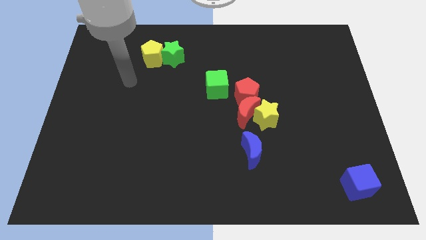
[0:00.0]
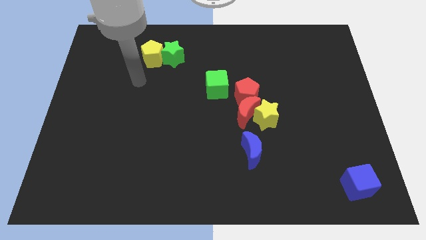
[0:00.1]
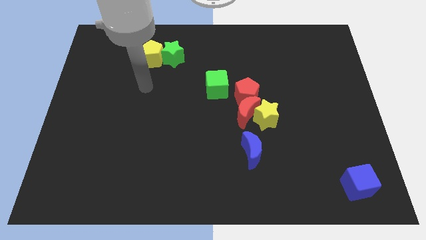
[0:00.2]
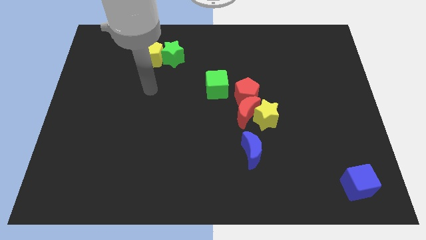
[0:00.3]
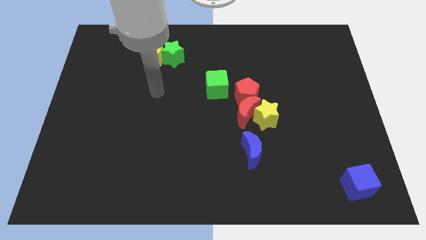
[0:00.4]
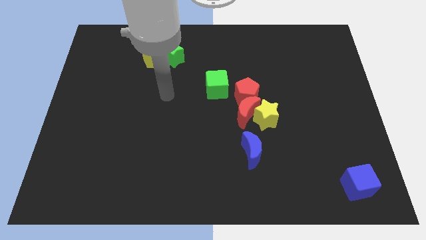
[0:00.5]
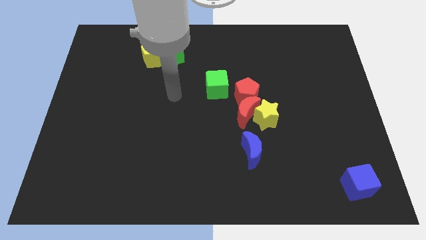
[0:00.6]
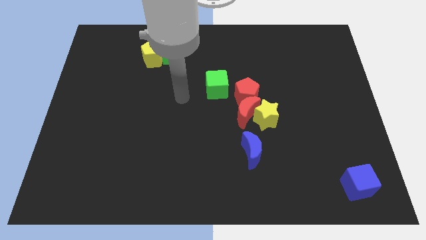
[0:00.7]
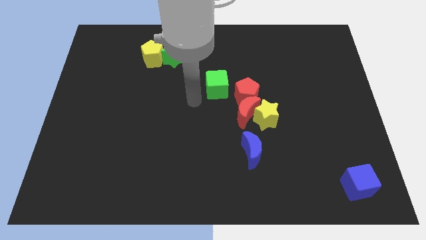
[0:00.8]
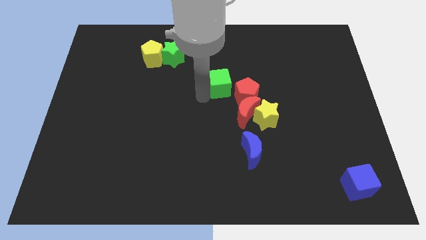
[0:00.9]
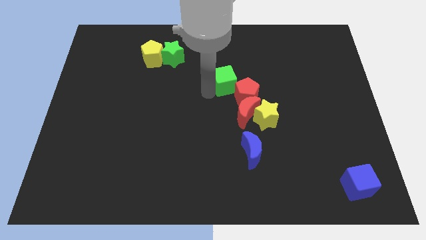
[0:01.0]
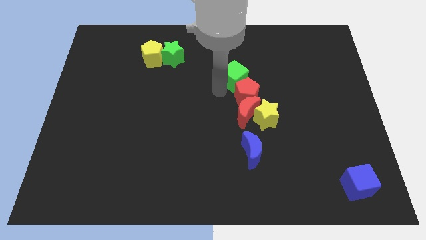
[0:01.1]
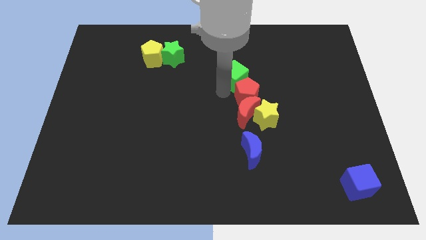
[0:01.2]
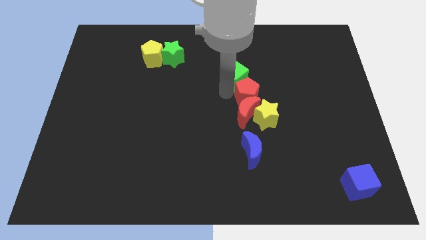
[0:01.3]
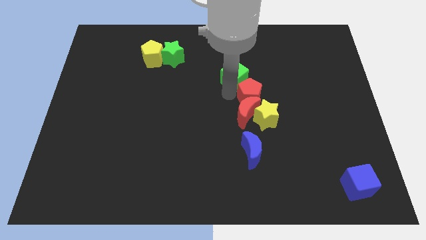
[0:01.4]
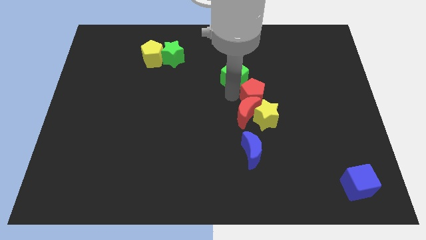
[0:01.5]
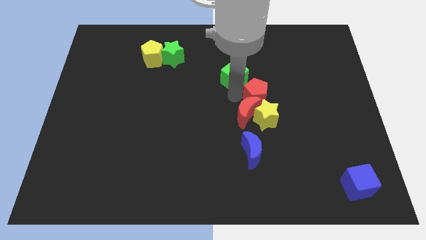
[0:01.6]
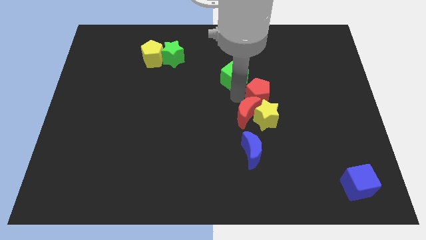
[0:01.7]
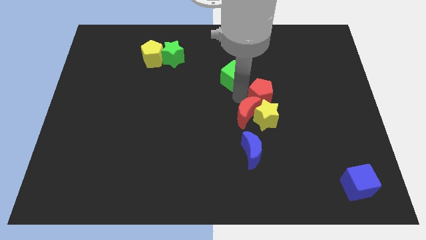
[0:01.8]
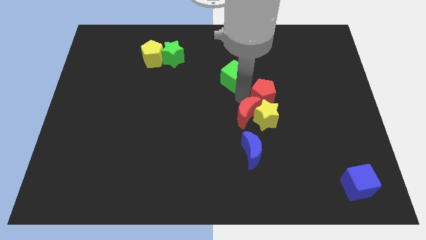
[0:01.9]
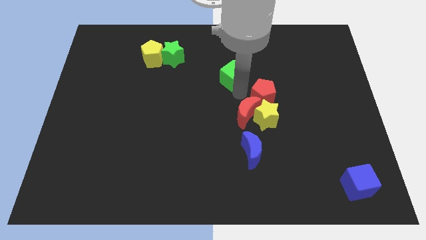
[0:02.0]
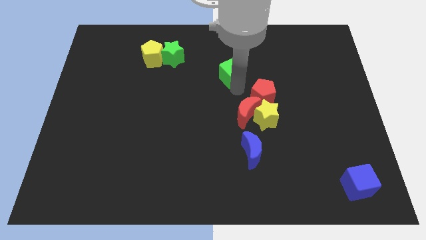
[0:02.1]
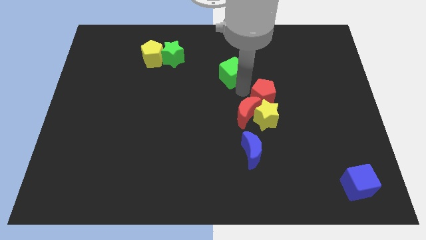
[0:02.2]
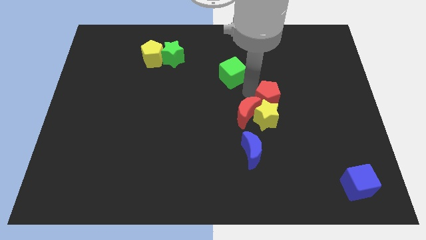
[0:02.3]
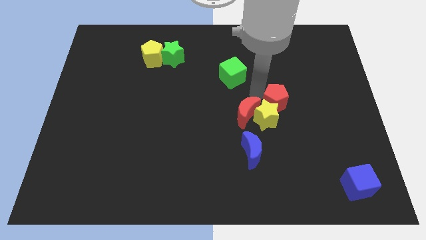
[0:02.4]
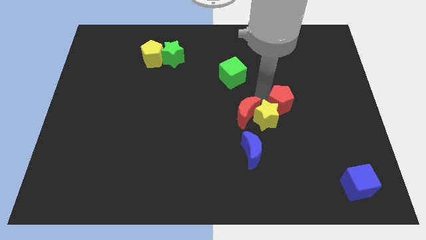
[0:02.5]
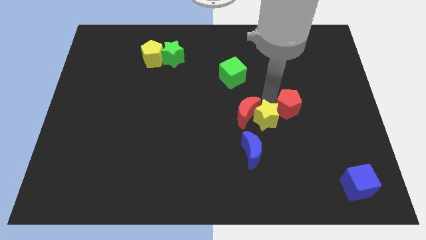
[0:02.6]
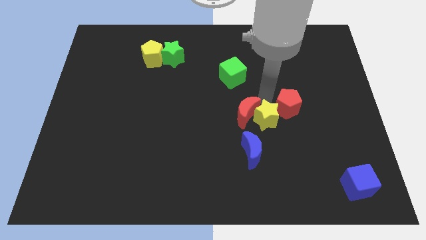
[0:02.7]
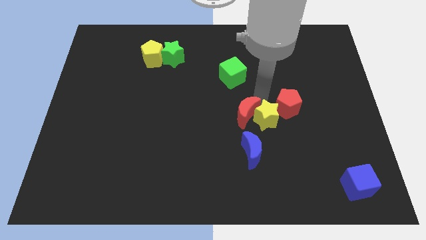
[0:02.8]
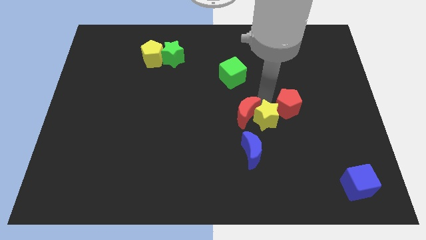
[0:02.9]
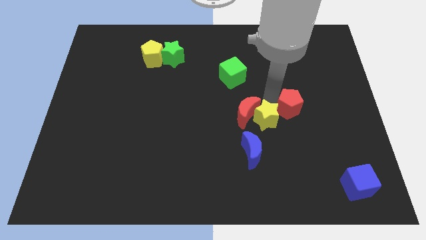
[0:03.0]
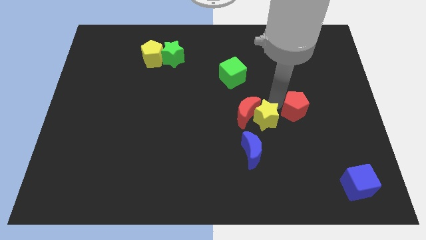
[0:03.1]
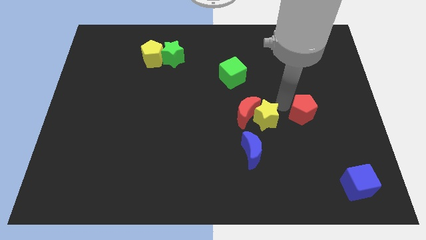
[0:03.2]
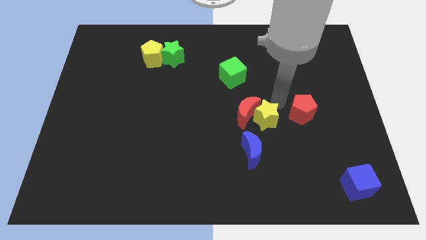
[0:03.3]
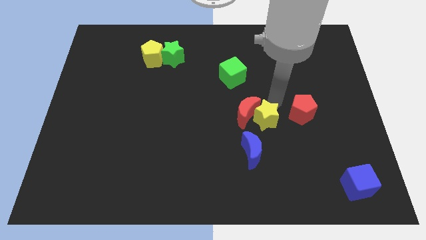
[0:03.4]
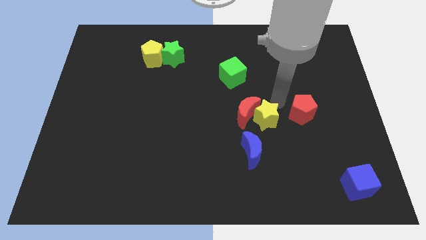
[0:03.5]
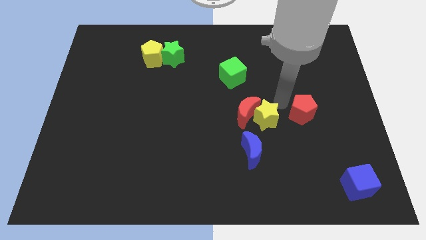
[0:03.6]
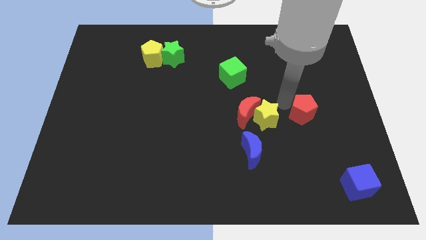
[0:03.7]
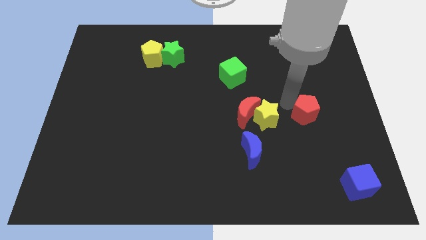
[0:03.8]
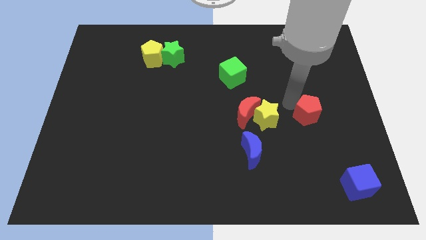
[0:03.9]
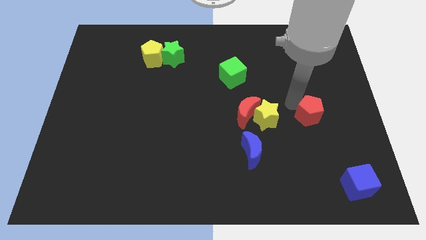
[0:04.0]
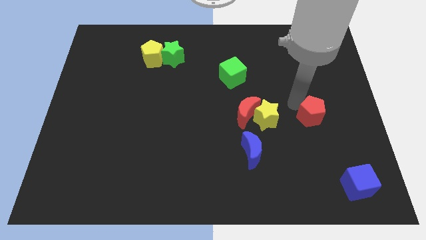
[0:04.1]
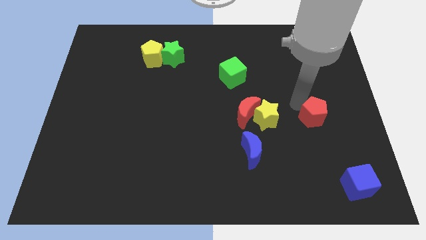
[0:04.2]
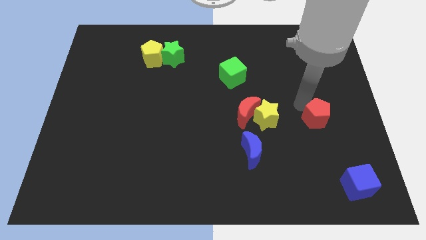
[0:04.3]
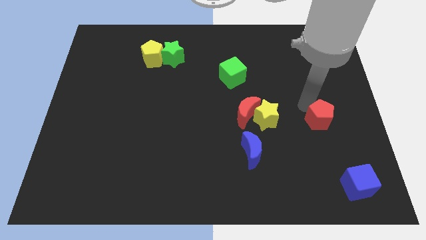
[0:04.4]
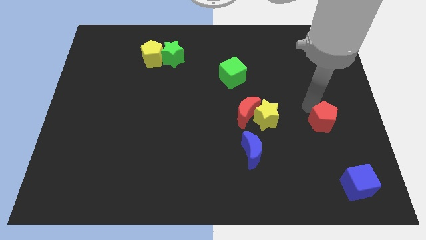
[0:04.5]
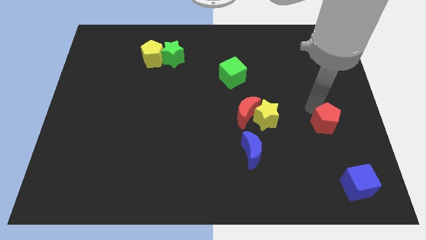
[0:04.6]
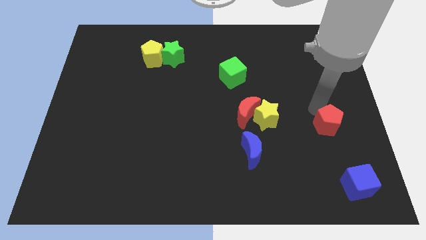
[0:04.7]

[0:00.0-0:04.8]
put the red pentagon to the top side of the blue cube

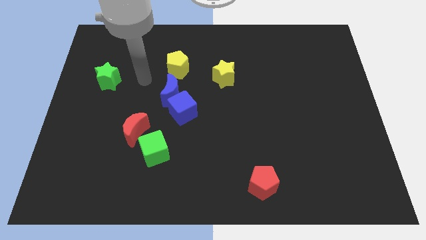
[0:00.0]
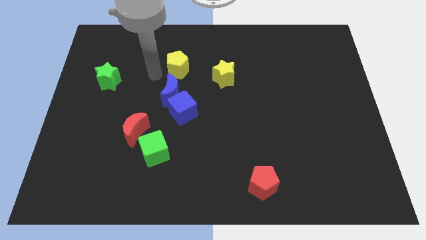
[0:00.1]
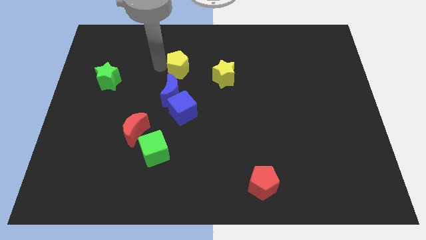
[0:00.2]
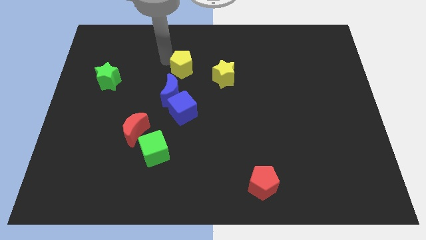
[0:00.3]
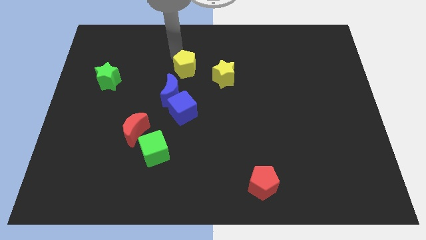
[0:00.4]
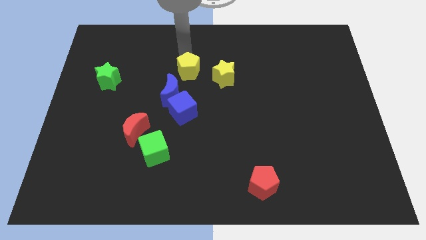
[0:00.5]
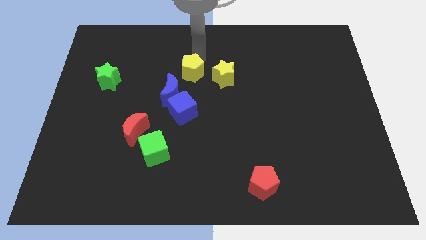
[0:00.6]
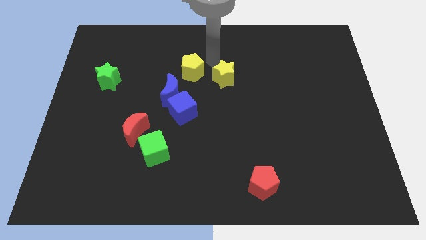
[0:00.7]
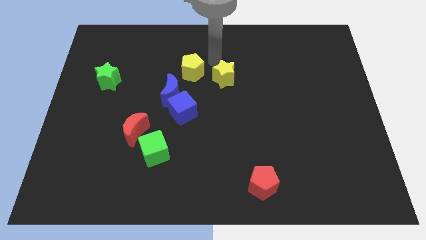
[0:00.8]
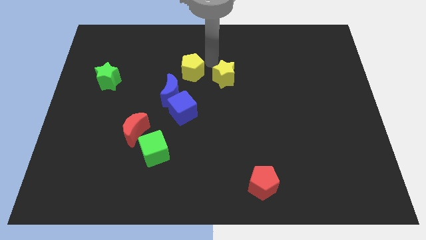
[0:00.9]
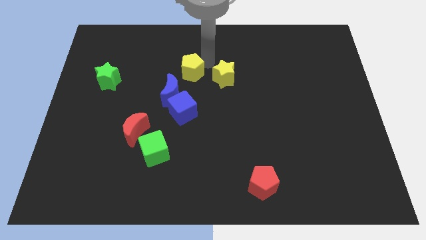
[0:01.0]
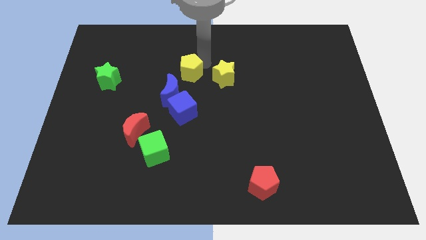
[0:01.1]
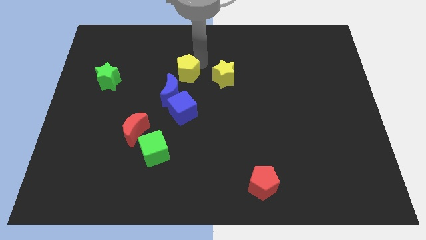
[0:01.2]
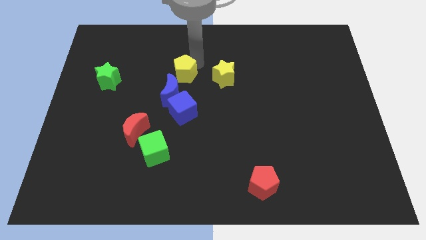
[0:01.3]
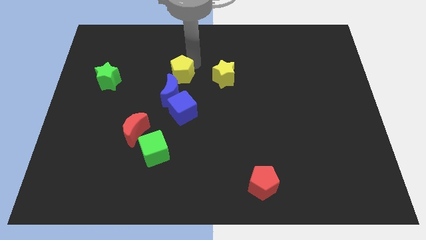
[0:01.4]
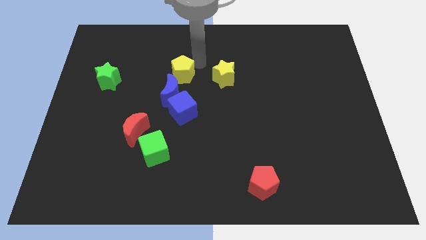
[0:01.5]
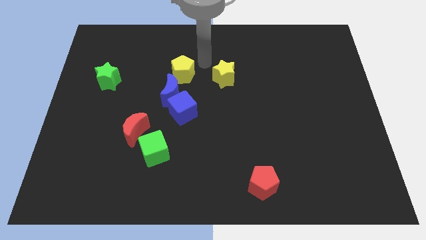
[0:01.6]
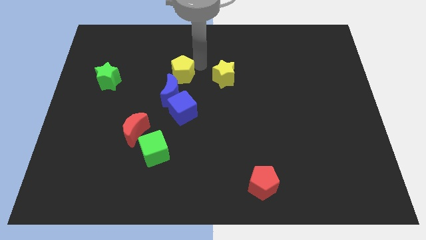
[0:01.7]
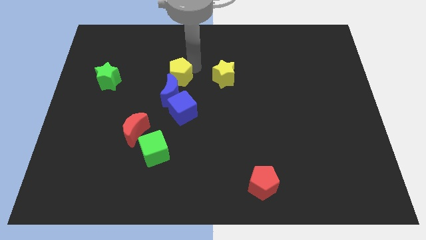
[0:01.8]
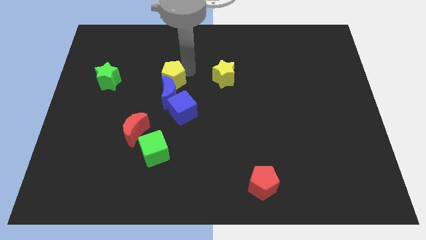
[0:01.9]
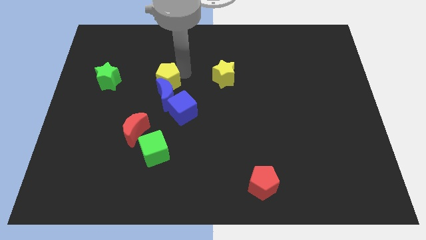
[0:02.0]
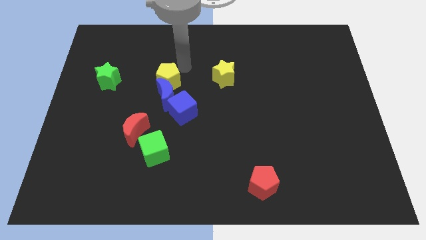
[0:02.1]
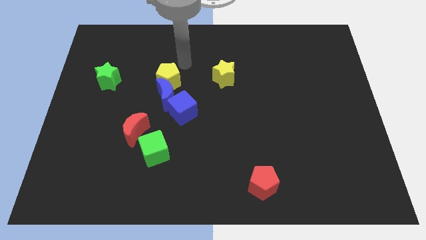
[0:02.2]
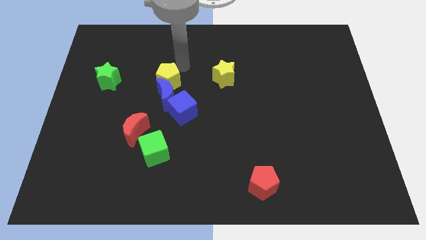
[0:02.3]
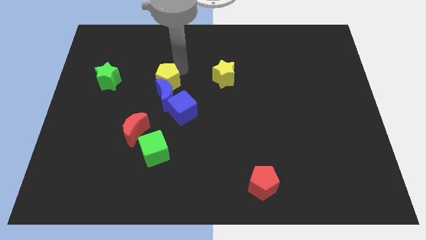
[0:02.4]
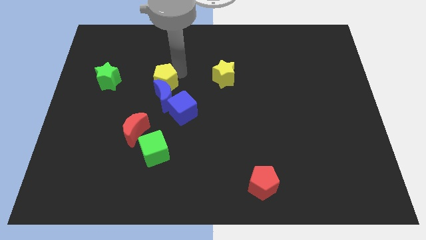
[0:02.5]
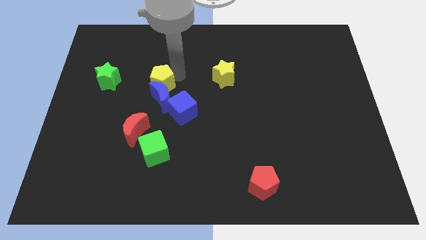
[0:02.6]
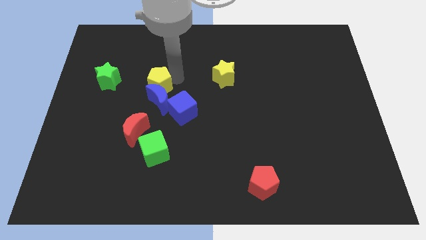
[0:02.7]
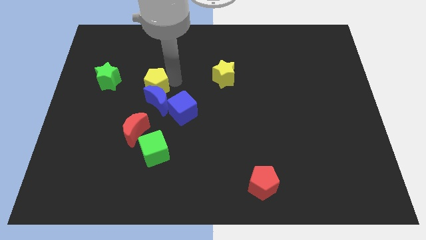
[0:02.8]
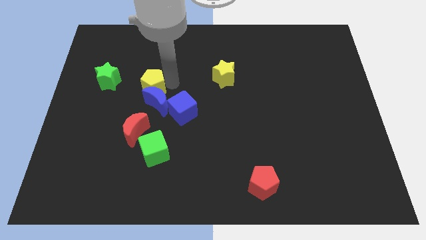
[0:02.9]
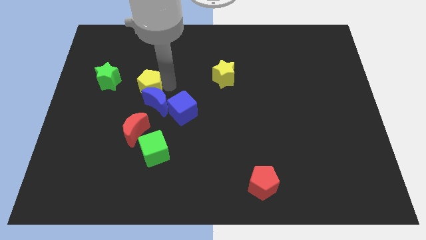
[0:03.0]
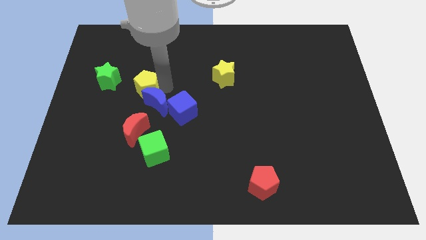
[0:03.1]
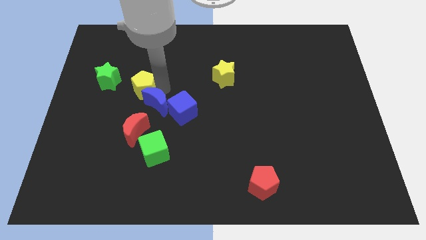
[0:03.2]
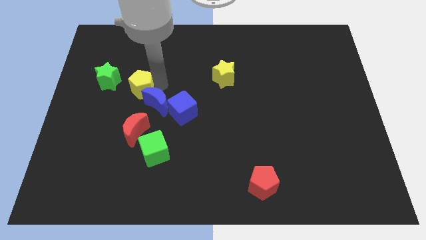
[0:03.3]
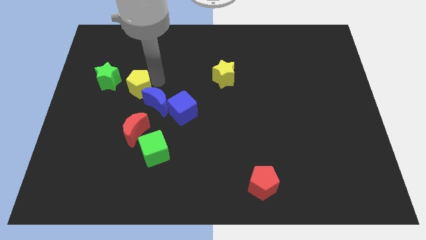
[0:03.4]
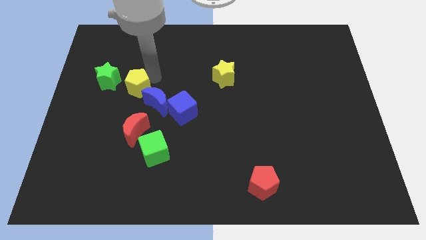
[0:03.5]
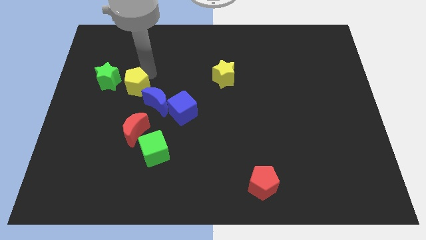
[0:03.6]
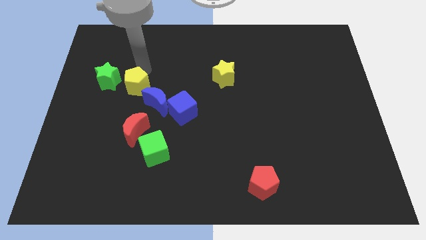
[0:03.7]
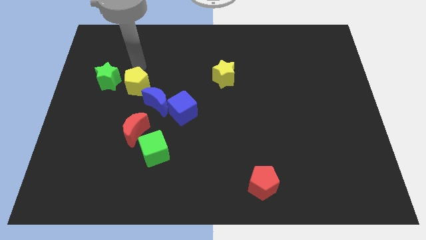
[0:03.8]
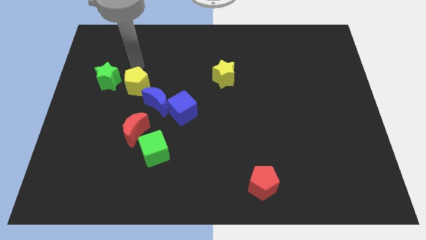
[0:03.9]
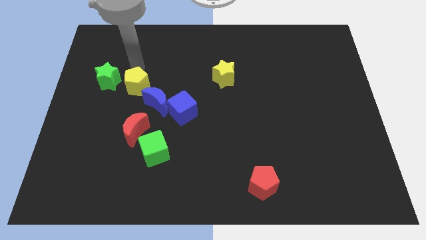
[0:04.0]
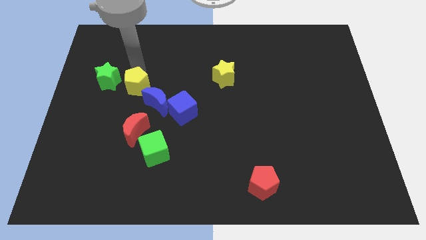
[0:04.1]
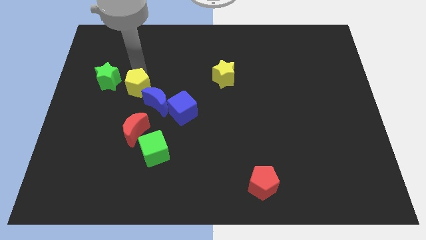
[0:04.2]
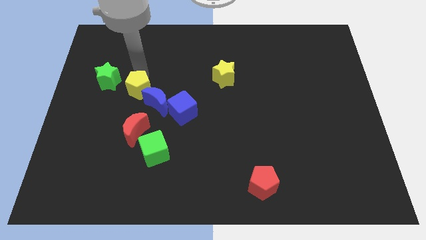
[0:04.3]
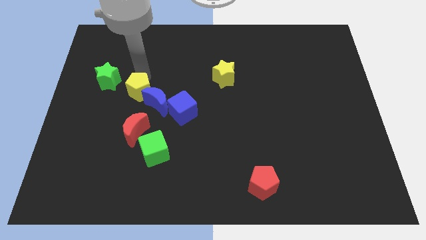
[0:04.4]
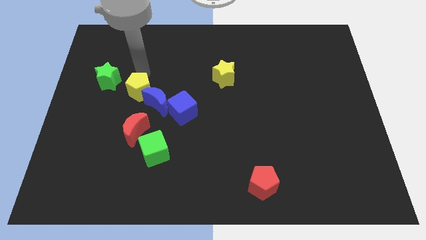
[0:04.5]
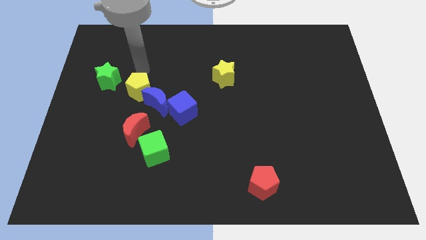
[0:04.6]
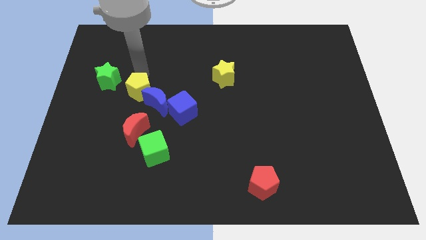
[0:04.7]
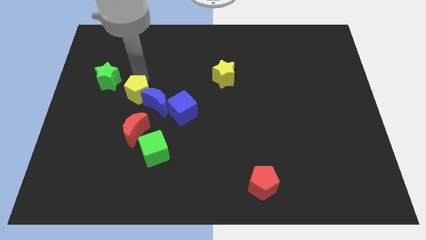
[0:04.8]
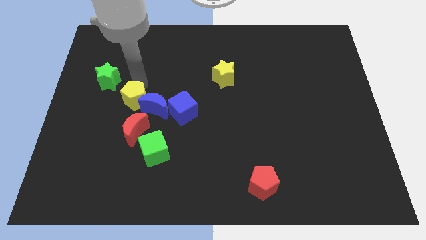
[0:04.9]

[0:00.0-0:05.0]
slide the yellow pentagon just left of the blue cube
